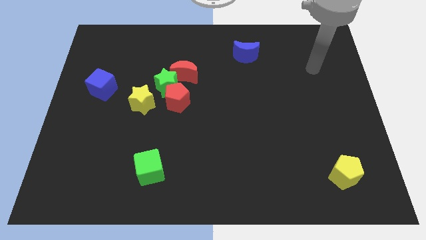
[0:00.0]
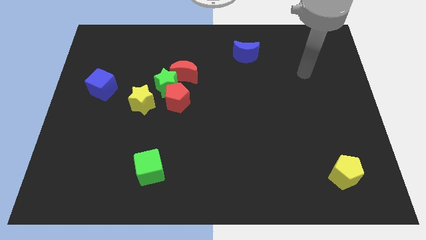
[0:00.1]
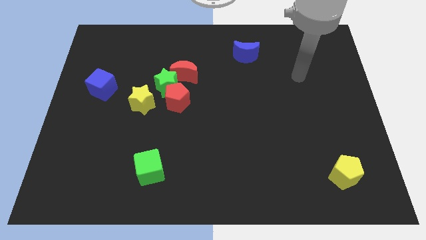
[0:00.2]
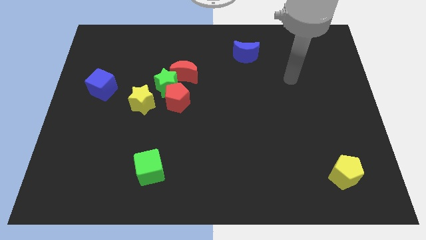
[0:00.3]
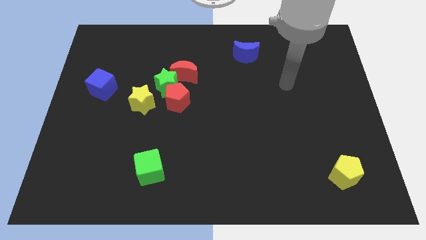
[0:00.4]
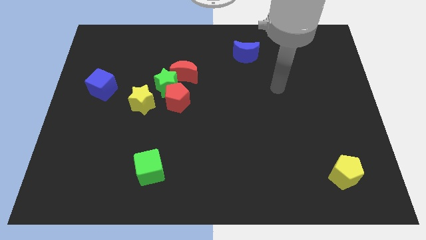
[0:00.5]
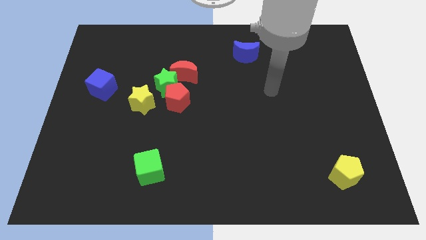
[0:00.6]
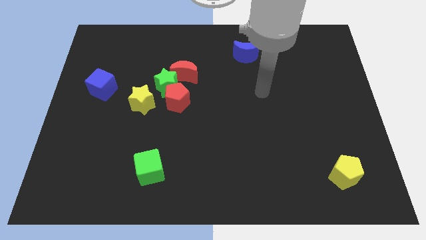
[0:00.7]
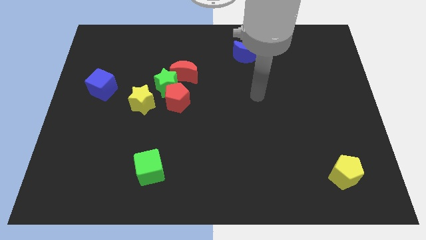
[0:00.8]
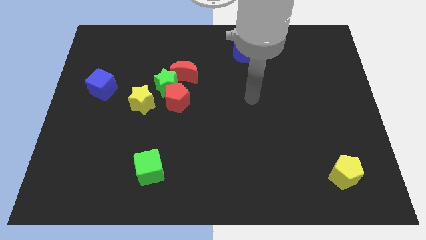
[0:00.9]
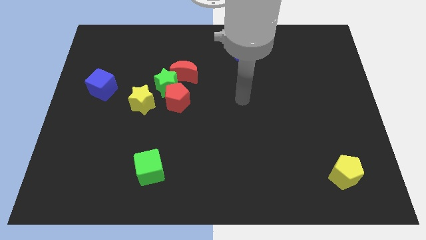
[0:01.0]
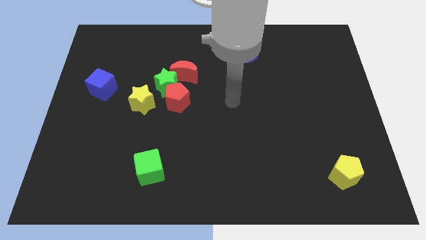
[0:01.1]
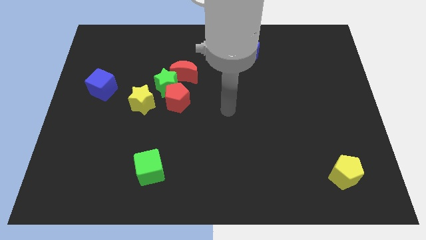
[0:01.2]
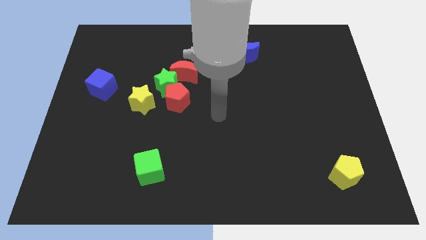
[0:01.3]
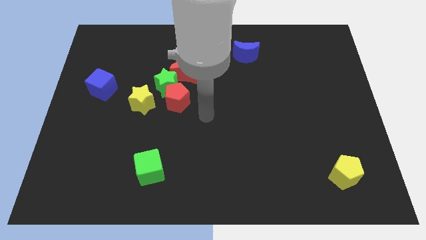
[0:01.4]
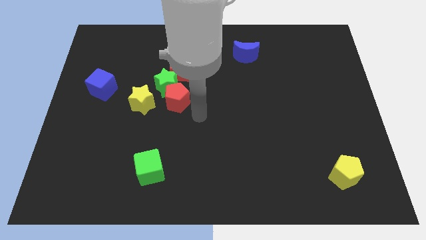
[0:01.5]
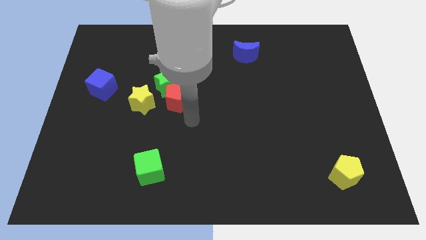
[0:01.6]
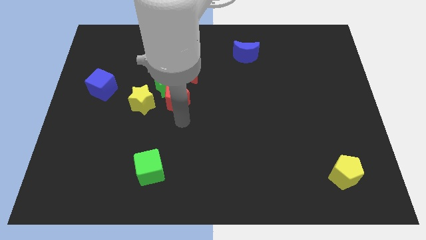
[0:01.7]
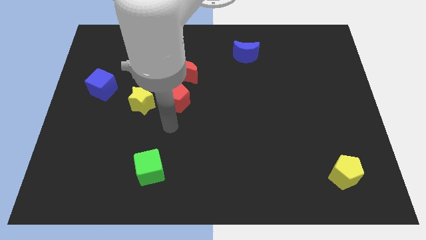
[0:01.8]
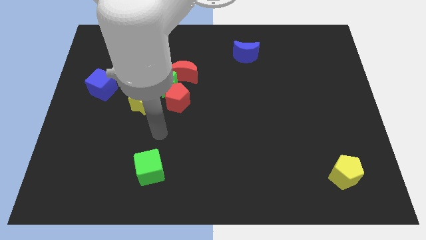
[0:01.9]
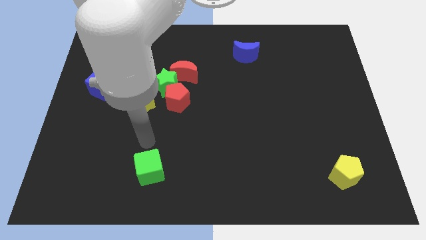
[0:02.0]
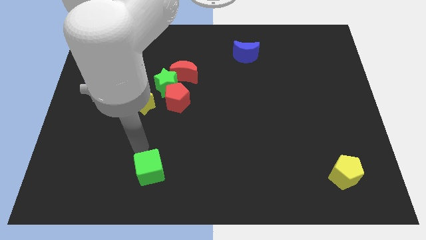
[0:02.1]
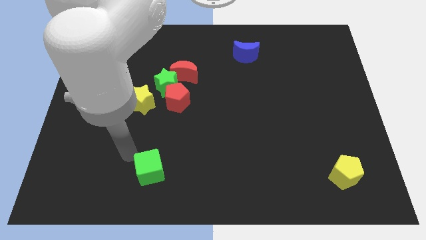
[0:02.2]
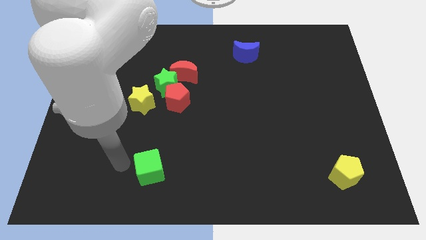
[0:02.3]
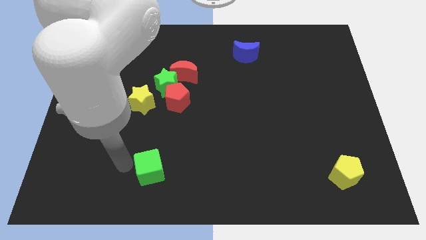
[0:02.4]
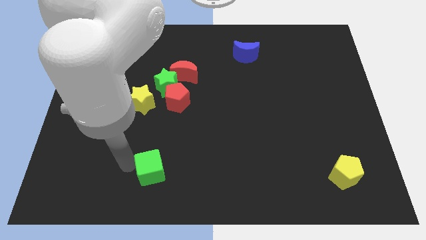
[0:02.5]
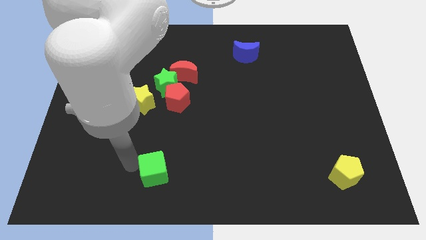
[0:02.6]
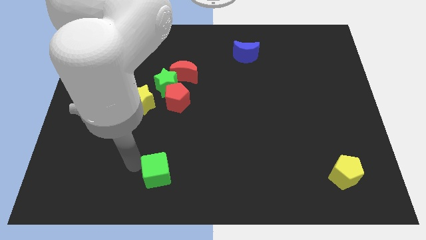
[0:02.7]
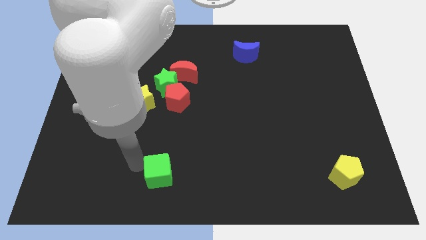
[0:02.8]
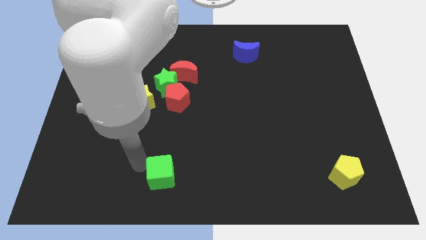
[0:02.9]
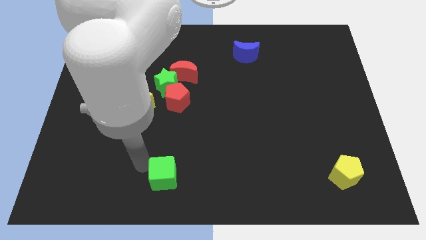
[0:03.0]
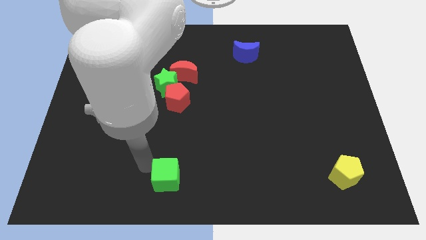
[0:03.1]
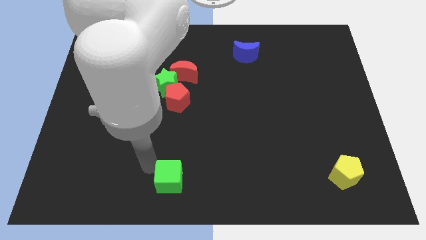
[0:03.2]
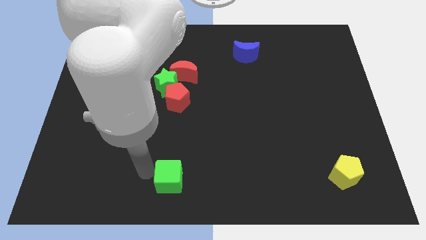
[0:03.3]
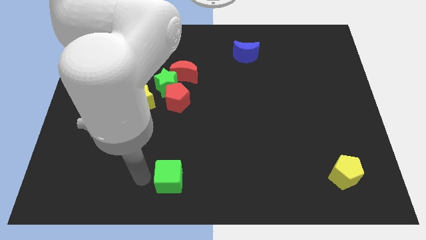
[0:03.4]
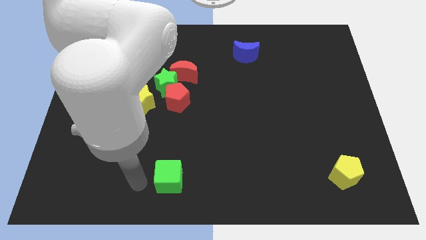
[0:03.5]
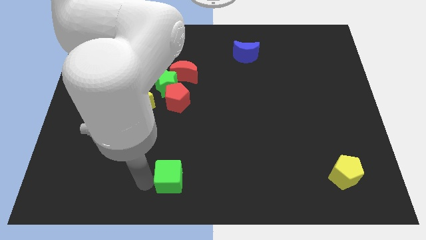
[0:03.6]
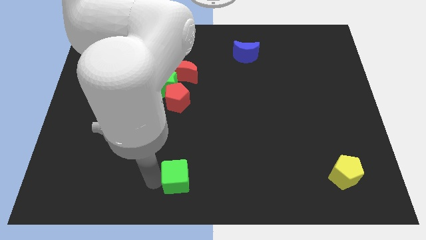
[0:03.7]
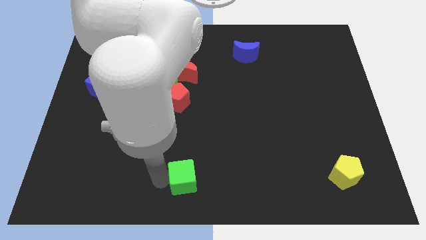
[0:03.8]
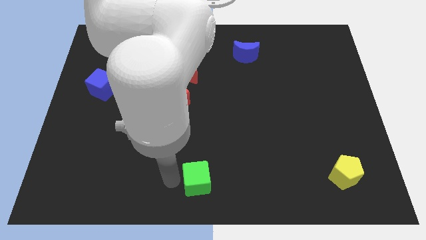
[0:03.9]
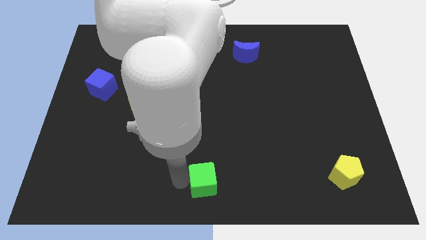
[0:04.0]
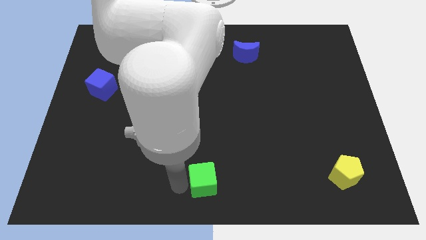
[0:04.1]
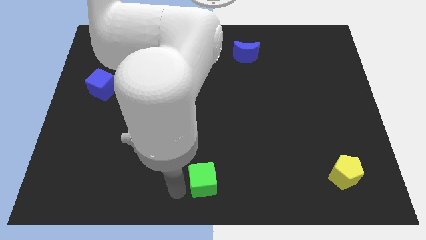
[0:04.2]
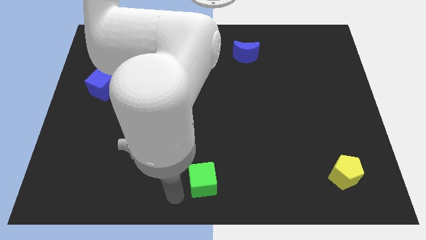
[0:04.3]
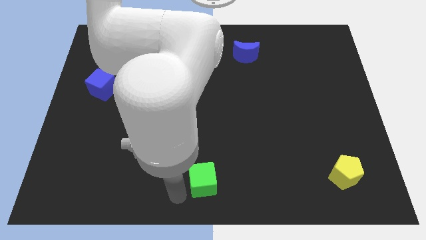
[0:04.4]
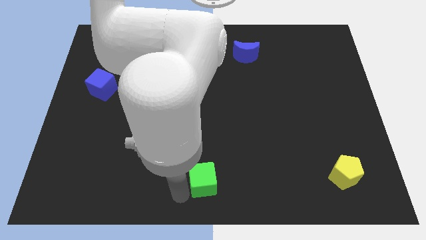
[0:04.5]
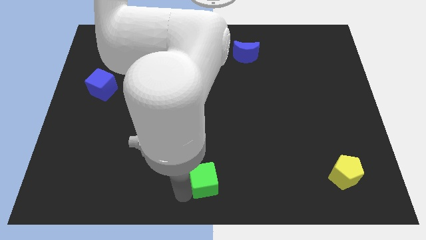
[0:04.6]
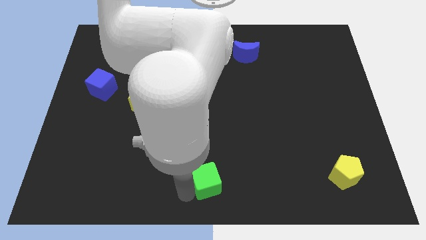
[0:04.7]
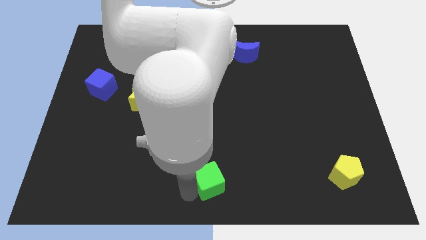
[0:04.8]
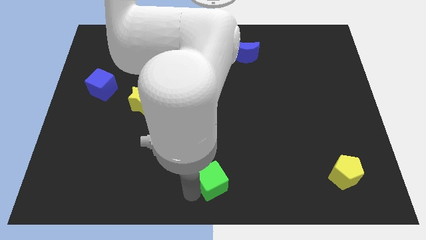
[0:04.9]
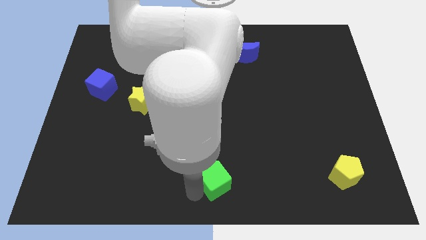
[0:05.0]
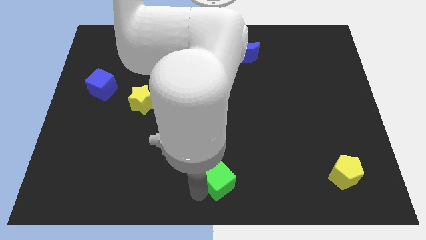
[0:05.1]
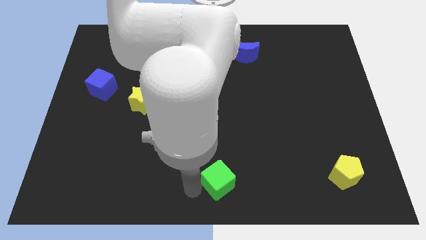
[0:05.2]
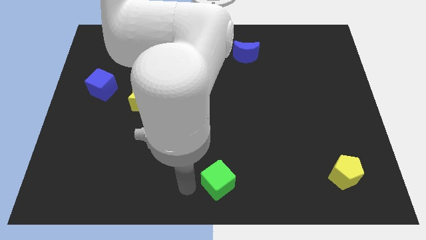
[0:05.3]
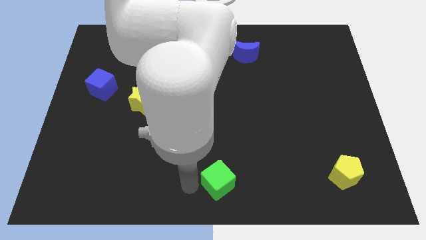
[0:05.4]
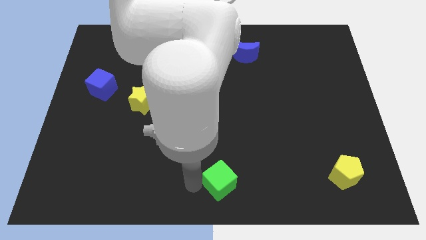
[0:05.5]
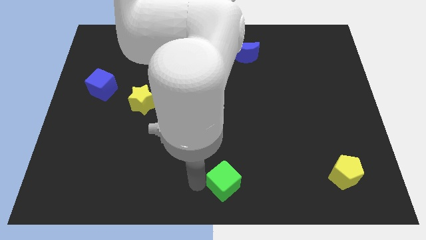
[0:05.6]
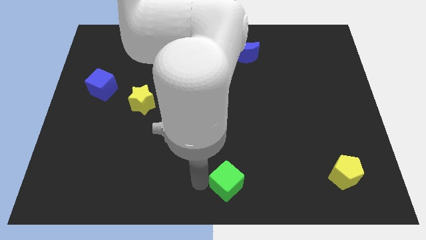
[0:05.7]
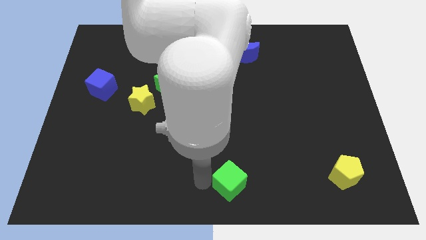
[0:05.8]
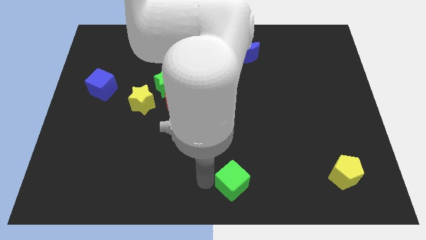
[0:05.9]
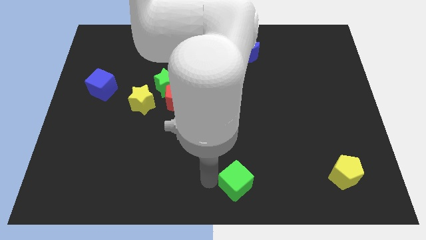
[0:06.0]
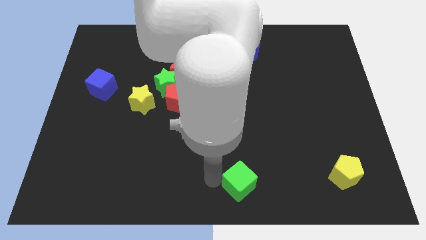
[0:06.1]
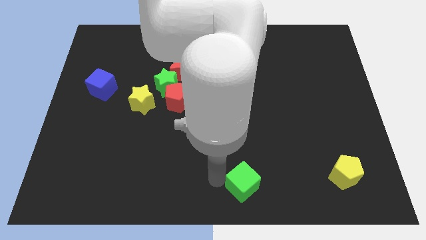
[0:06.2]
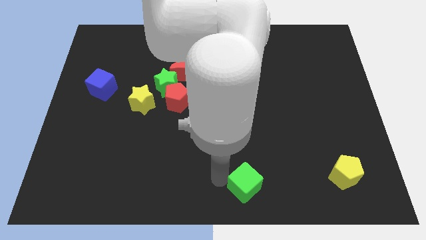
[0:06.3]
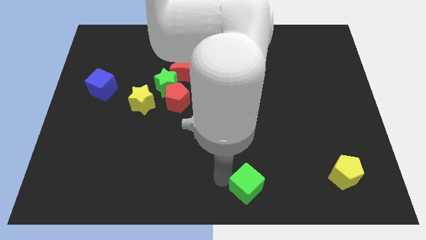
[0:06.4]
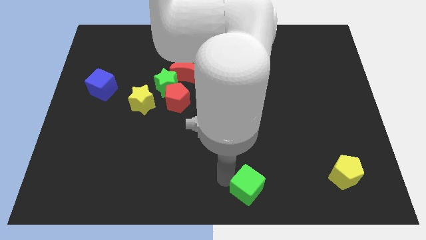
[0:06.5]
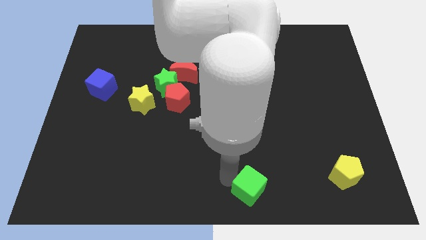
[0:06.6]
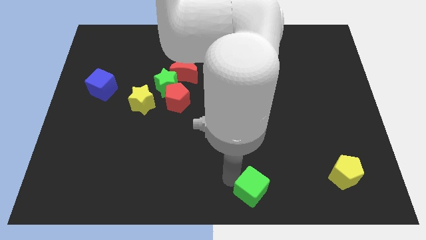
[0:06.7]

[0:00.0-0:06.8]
push the green cube to the right

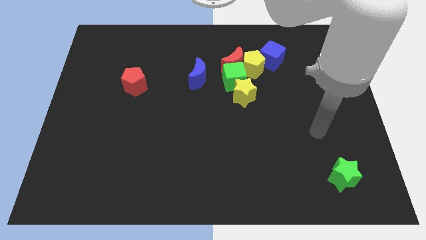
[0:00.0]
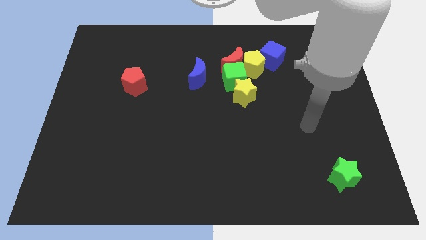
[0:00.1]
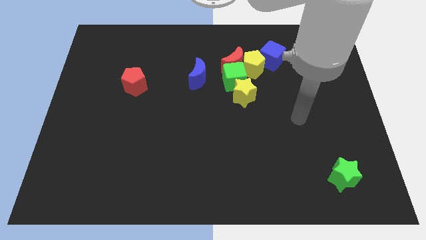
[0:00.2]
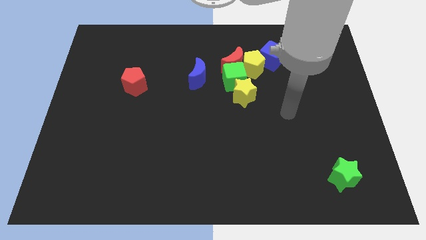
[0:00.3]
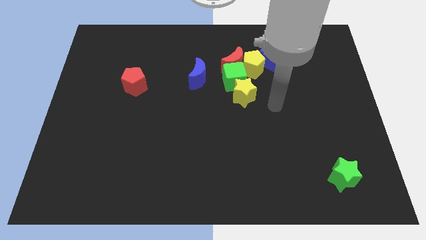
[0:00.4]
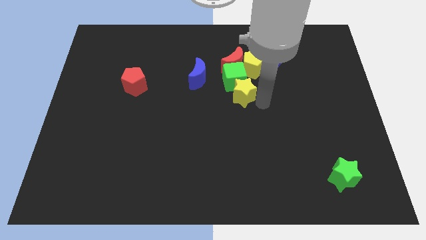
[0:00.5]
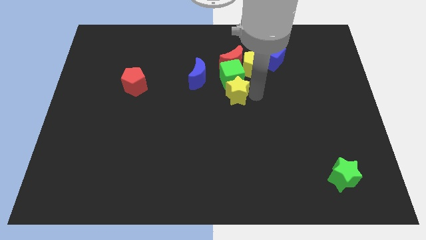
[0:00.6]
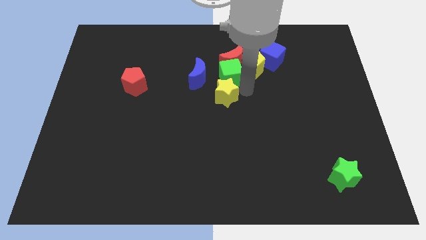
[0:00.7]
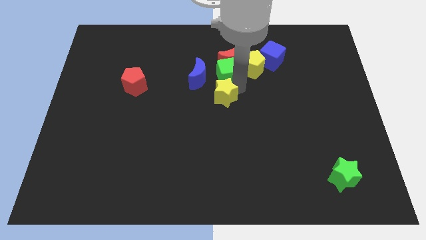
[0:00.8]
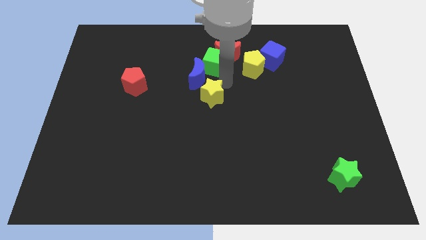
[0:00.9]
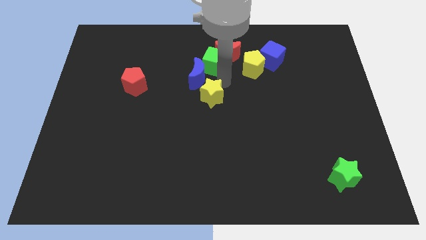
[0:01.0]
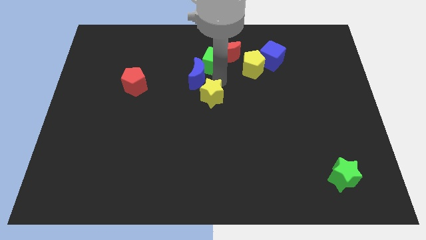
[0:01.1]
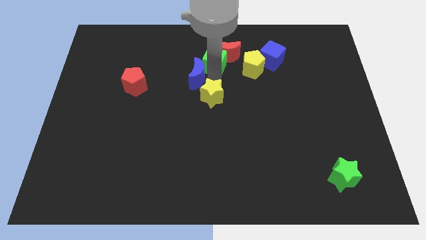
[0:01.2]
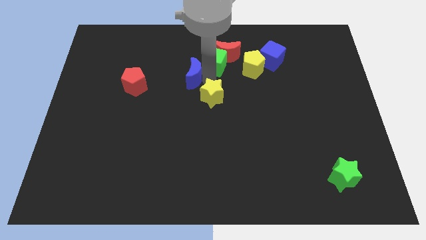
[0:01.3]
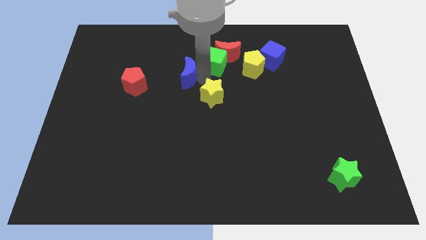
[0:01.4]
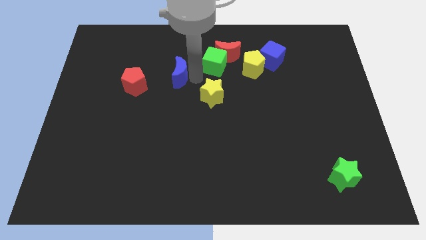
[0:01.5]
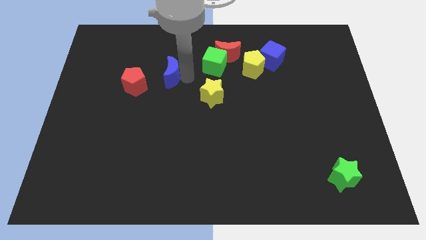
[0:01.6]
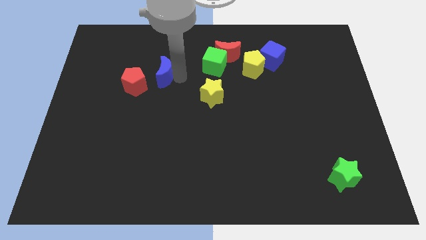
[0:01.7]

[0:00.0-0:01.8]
push the blue moon left a little
